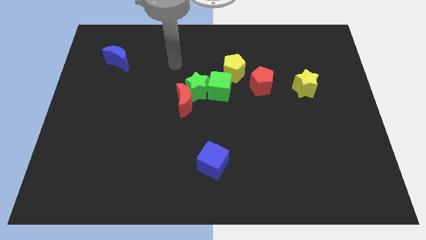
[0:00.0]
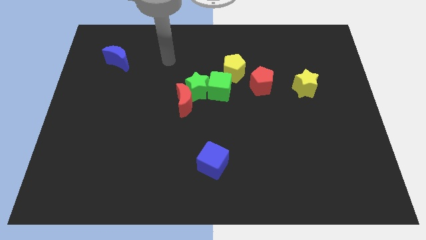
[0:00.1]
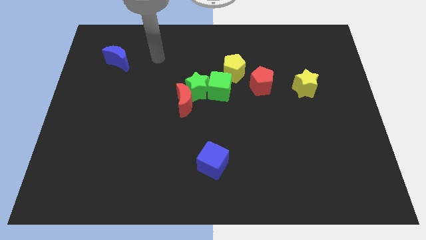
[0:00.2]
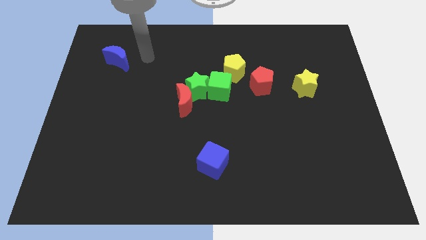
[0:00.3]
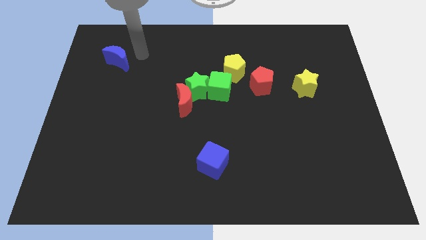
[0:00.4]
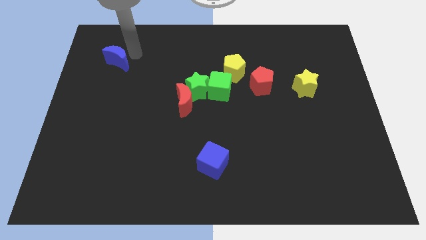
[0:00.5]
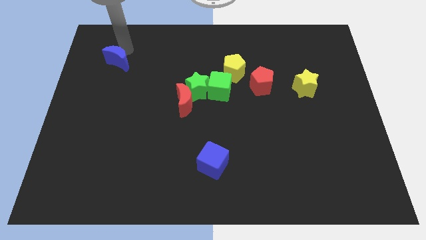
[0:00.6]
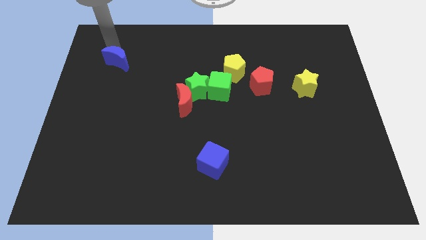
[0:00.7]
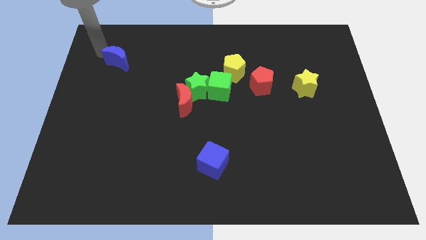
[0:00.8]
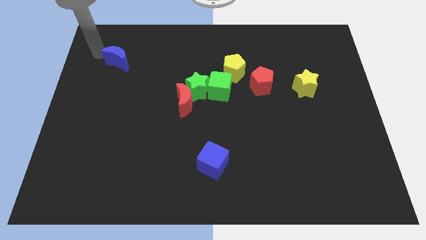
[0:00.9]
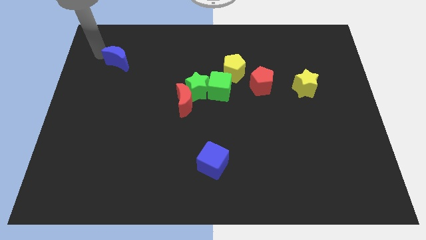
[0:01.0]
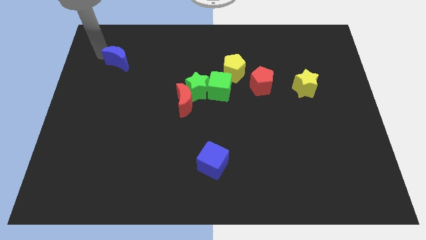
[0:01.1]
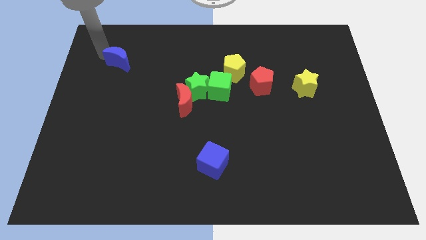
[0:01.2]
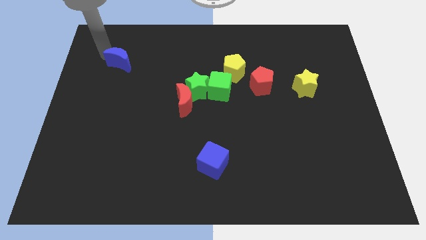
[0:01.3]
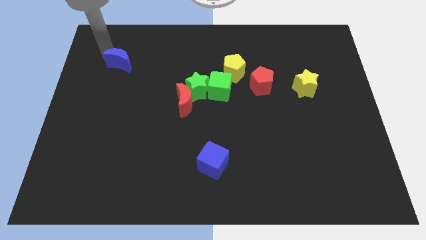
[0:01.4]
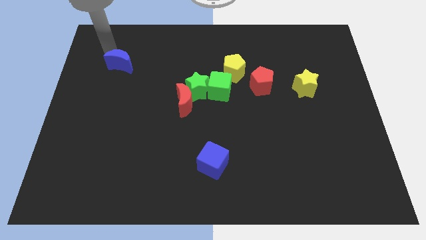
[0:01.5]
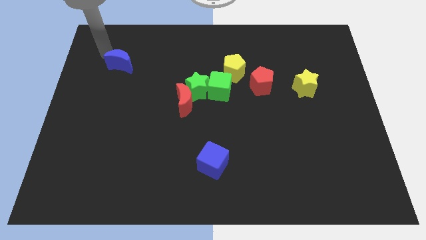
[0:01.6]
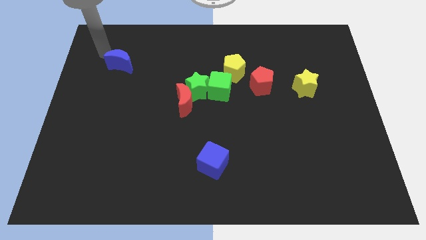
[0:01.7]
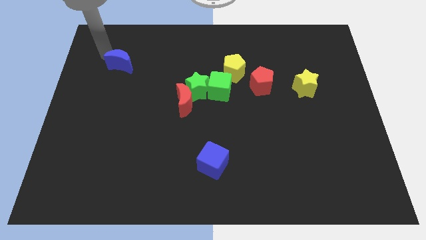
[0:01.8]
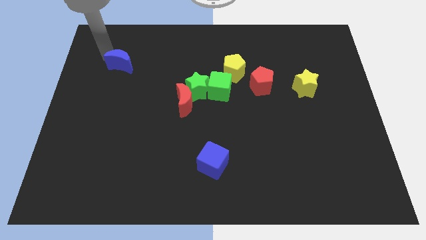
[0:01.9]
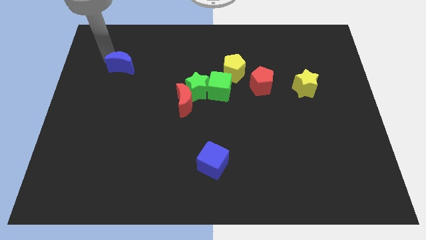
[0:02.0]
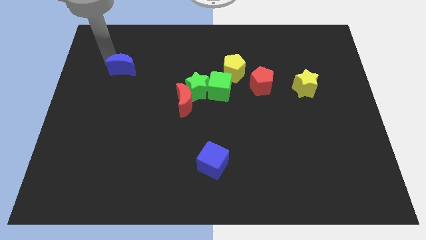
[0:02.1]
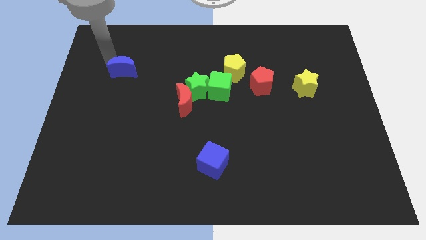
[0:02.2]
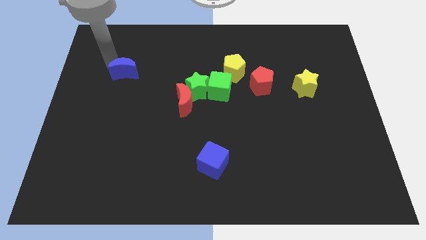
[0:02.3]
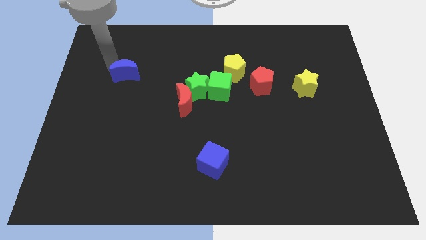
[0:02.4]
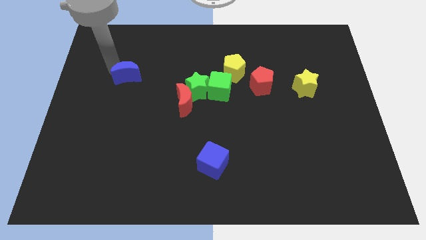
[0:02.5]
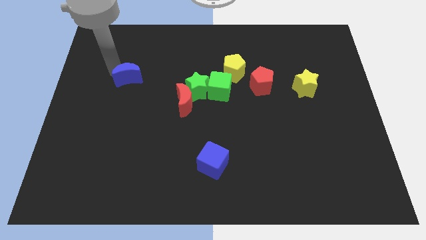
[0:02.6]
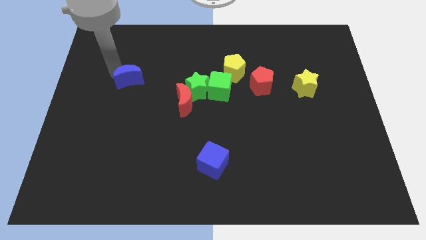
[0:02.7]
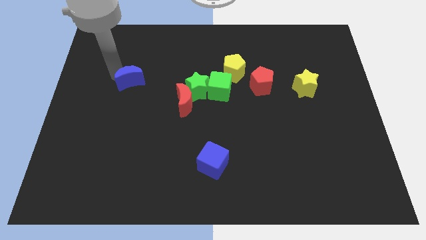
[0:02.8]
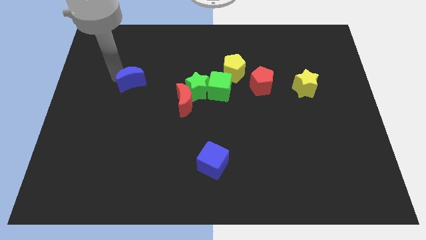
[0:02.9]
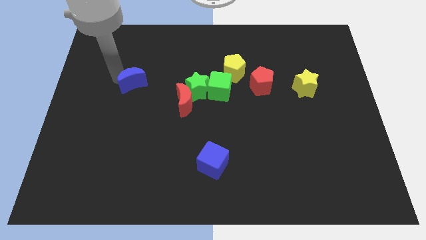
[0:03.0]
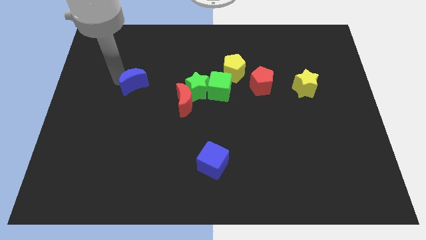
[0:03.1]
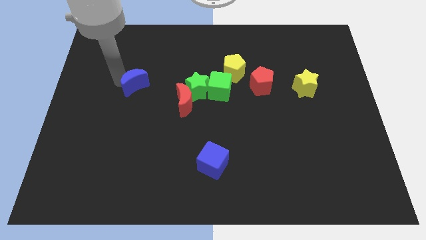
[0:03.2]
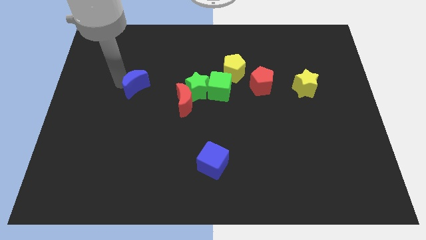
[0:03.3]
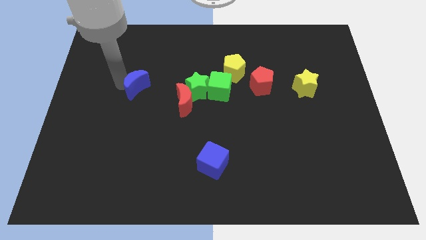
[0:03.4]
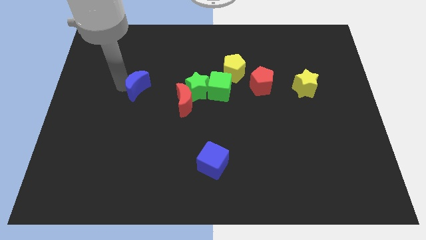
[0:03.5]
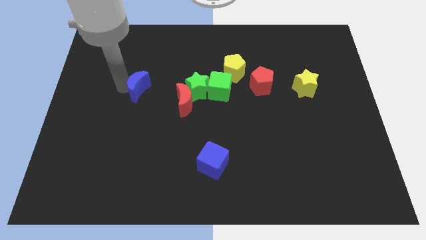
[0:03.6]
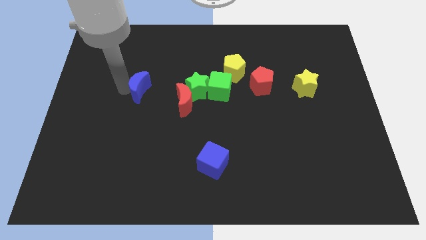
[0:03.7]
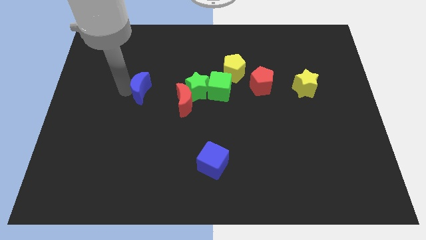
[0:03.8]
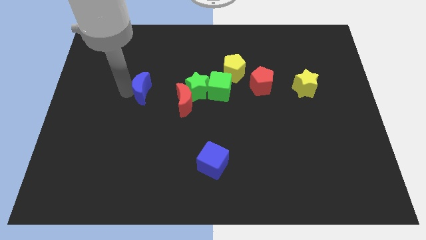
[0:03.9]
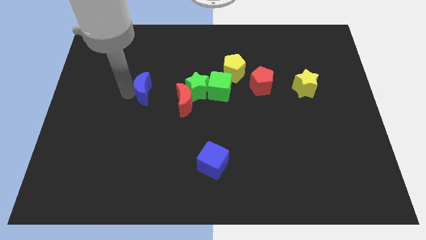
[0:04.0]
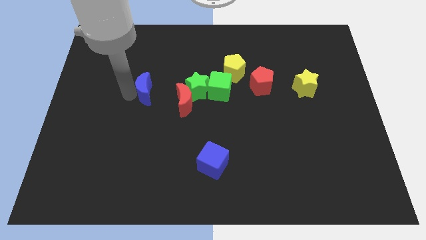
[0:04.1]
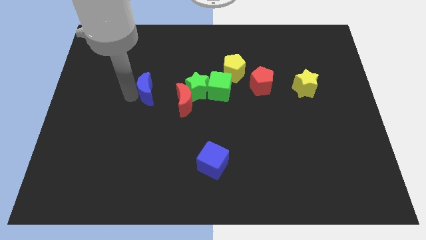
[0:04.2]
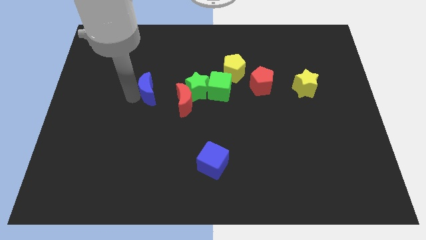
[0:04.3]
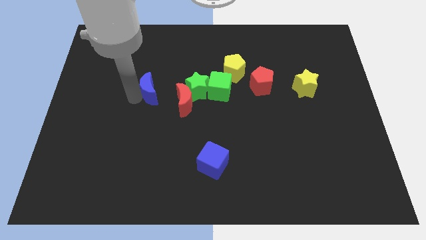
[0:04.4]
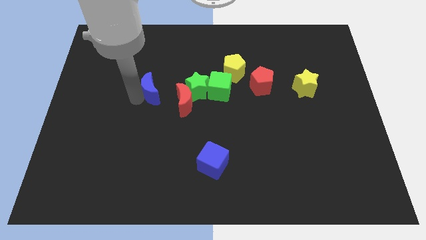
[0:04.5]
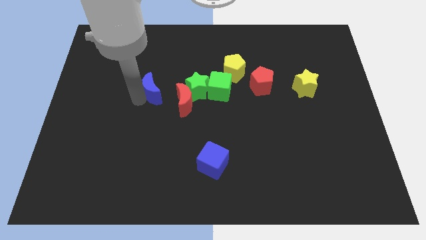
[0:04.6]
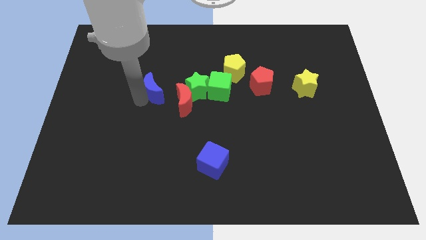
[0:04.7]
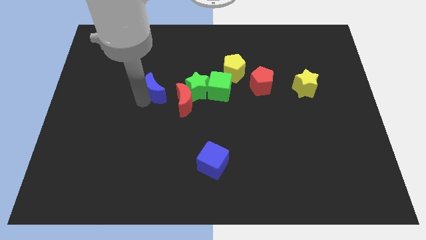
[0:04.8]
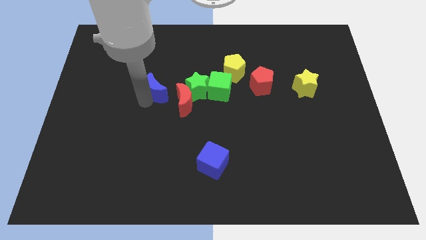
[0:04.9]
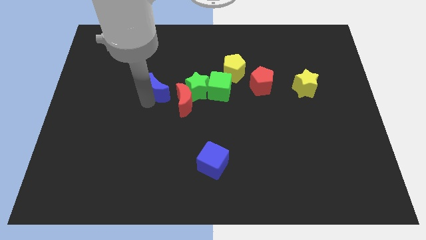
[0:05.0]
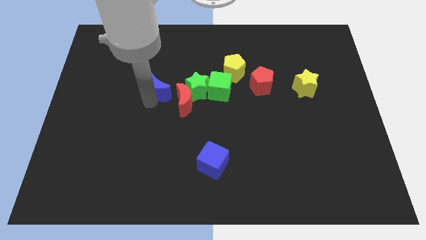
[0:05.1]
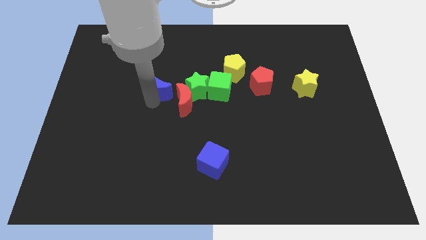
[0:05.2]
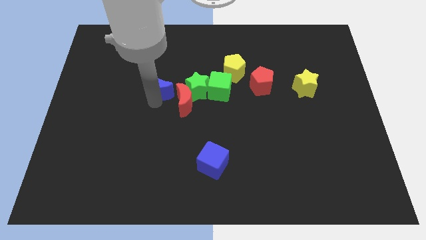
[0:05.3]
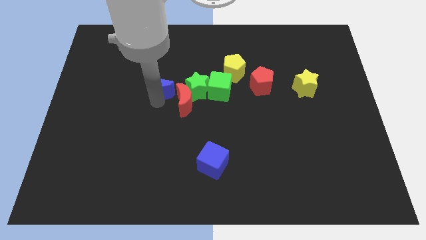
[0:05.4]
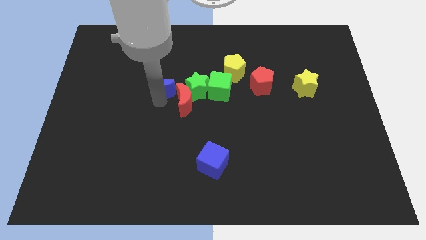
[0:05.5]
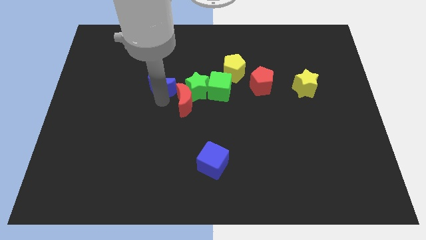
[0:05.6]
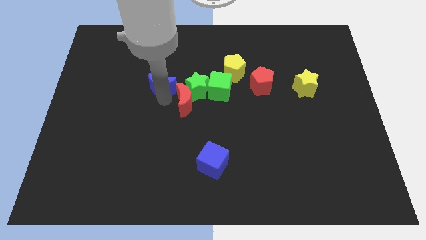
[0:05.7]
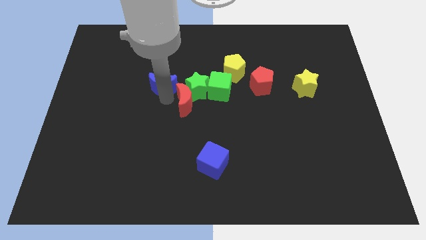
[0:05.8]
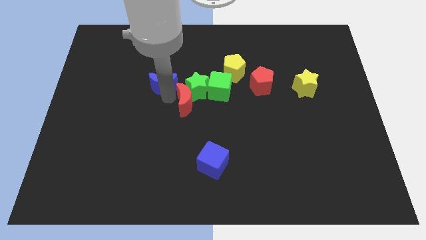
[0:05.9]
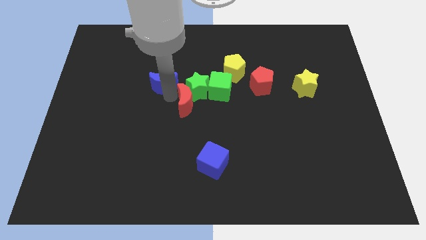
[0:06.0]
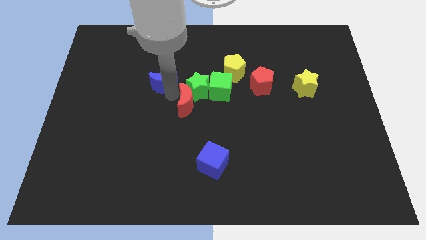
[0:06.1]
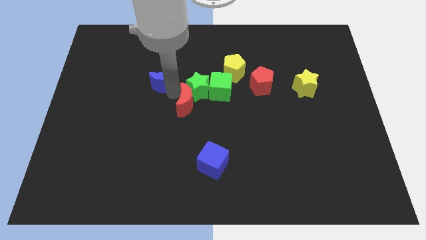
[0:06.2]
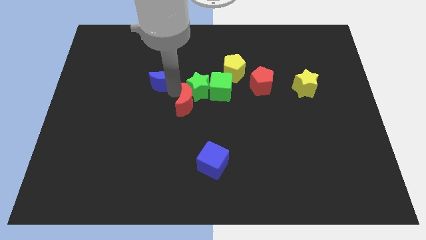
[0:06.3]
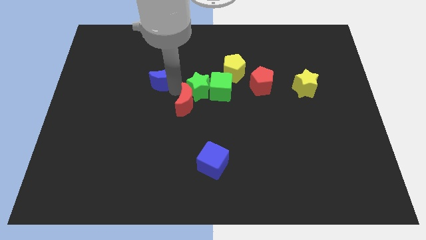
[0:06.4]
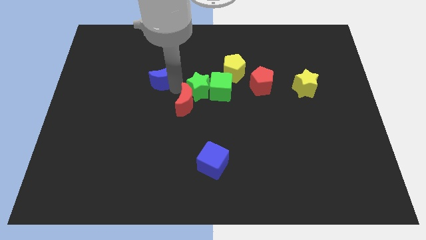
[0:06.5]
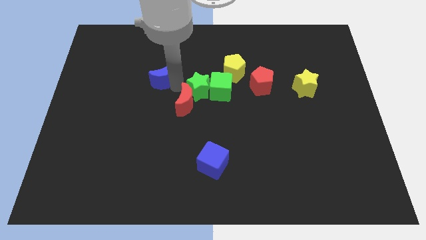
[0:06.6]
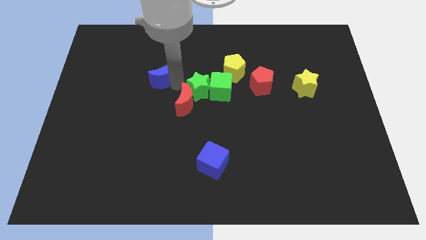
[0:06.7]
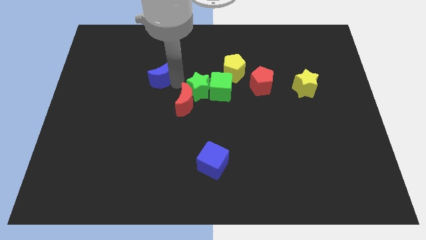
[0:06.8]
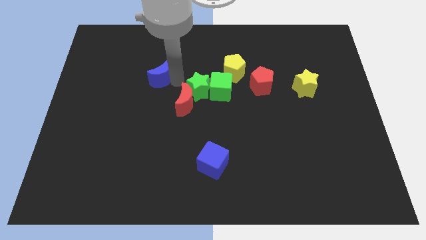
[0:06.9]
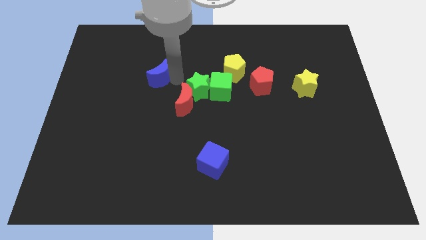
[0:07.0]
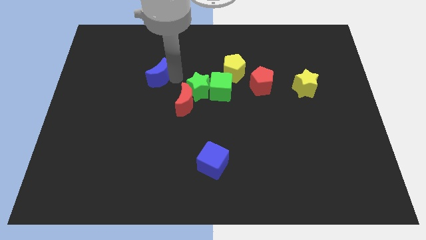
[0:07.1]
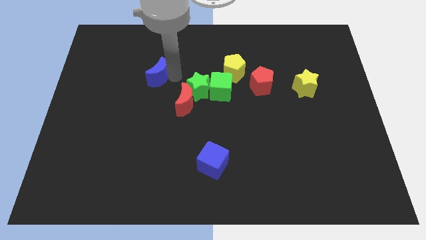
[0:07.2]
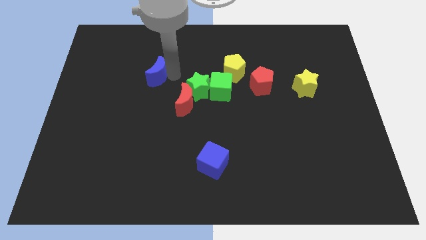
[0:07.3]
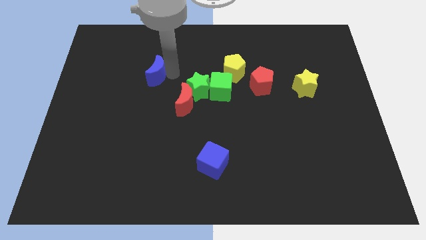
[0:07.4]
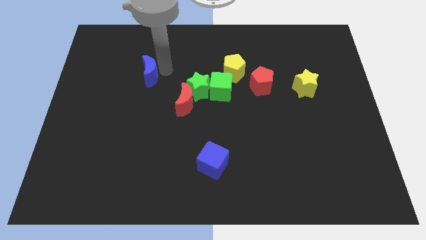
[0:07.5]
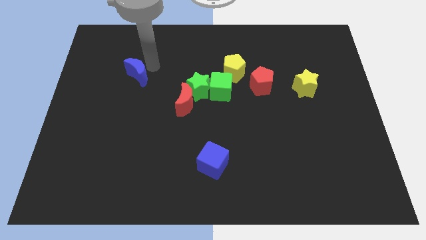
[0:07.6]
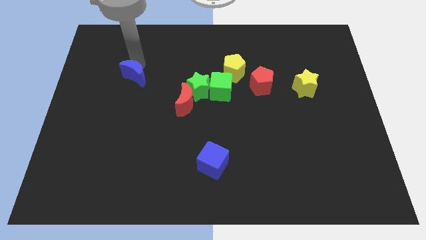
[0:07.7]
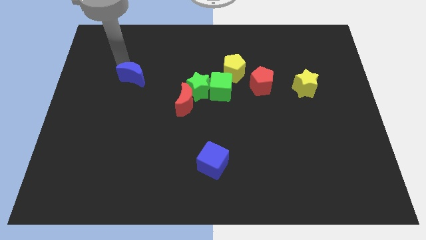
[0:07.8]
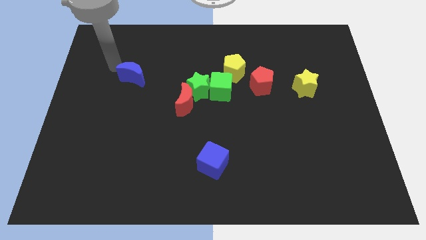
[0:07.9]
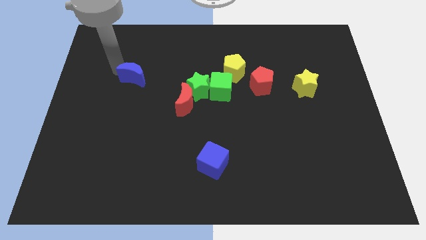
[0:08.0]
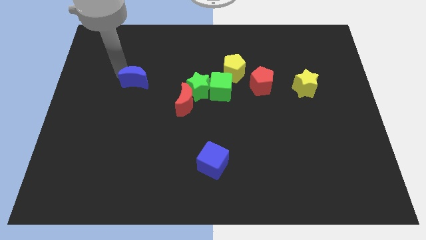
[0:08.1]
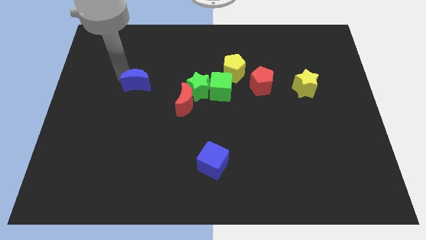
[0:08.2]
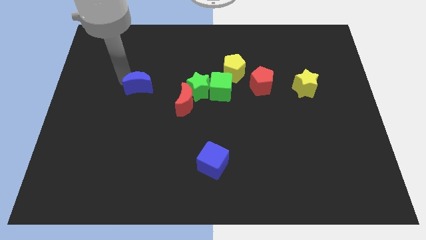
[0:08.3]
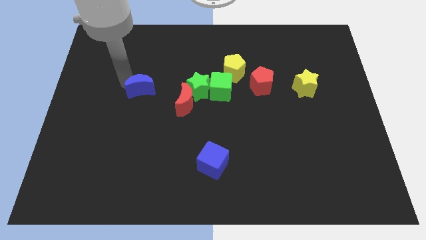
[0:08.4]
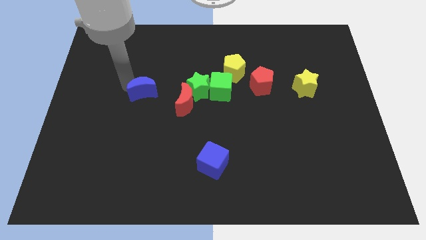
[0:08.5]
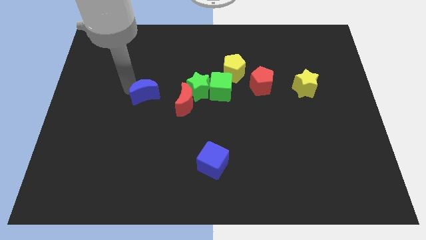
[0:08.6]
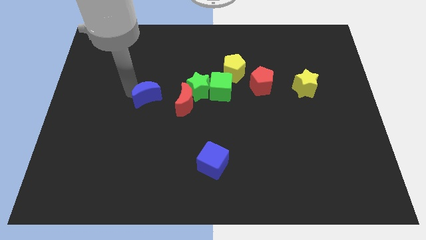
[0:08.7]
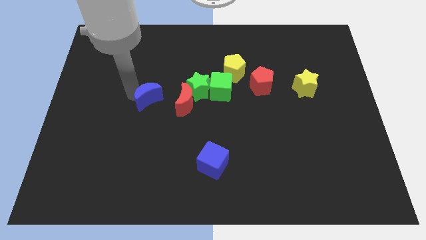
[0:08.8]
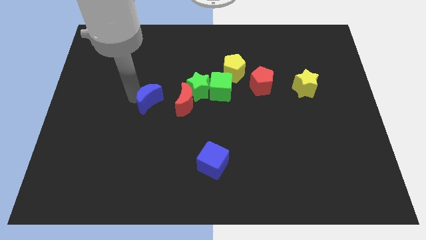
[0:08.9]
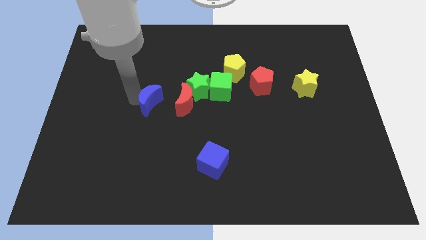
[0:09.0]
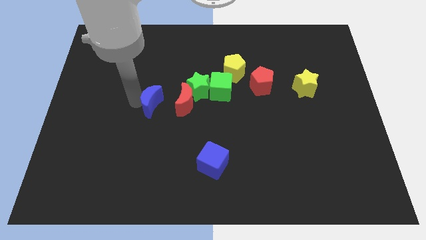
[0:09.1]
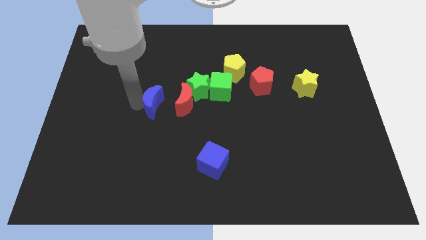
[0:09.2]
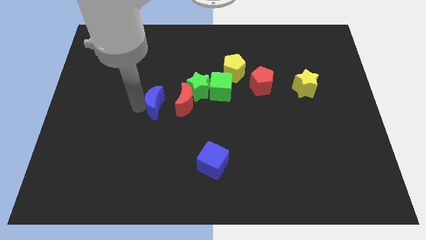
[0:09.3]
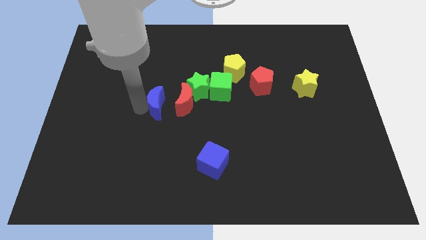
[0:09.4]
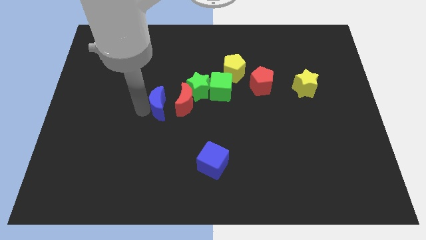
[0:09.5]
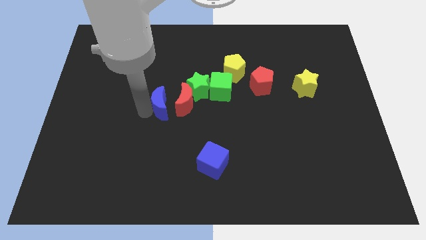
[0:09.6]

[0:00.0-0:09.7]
slide the blue moon to the red moon
